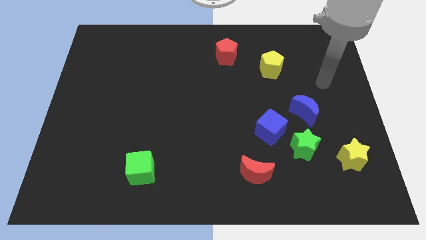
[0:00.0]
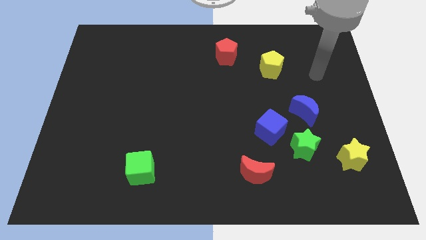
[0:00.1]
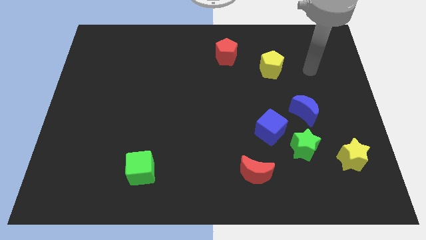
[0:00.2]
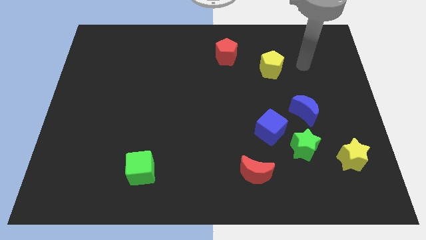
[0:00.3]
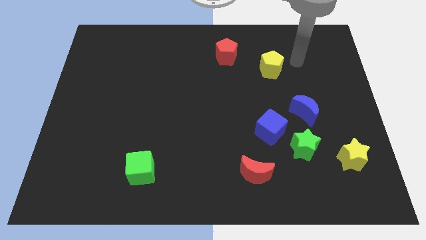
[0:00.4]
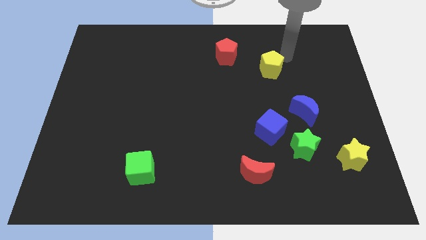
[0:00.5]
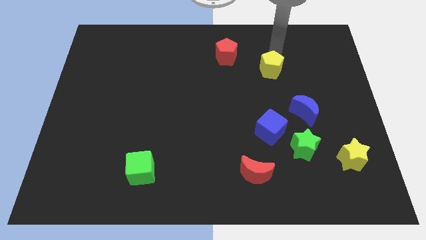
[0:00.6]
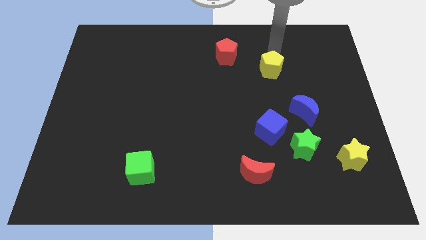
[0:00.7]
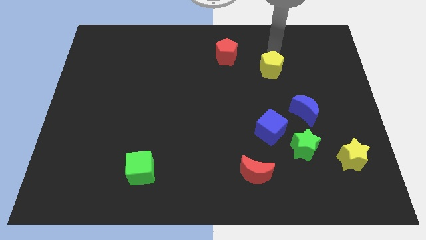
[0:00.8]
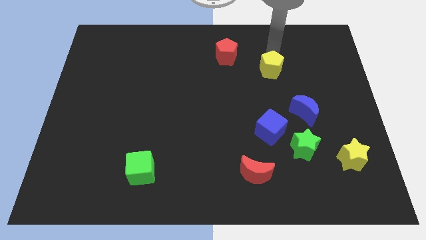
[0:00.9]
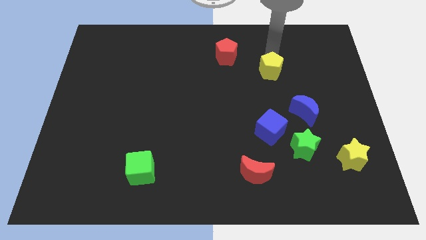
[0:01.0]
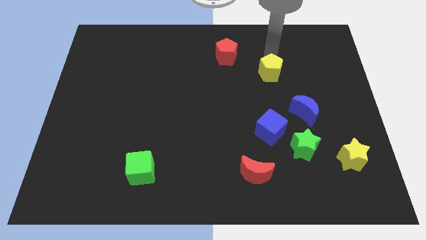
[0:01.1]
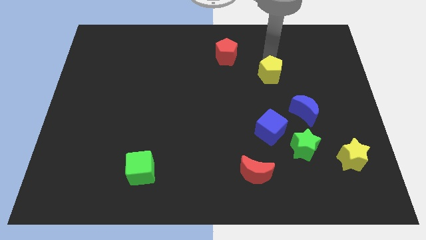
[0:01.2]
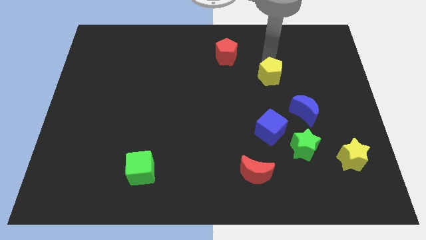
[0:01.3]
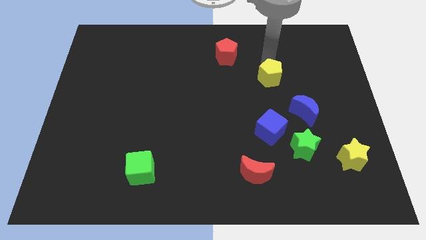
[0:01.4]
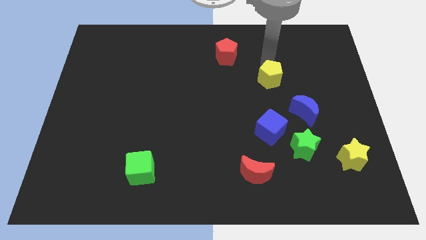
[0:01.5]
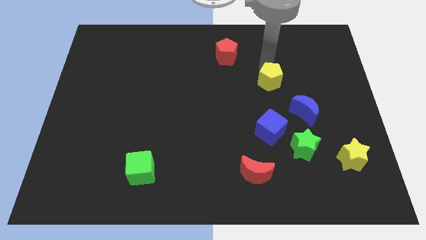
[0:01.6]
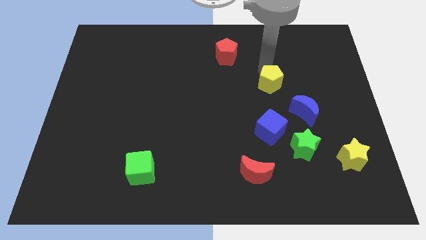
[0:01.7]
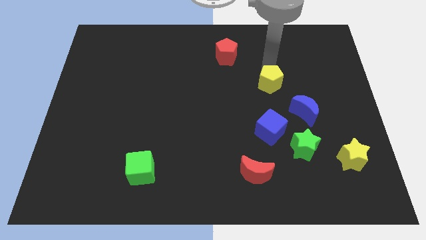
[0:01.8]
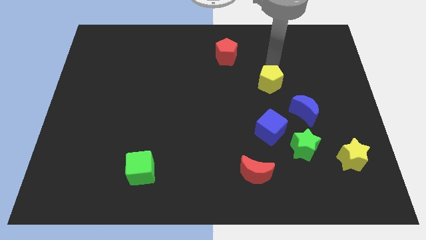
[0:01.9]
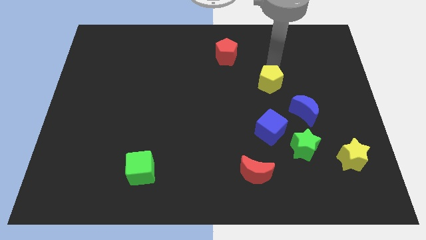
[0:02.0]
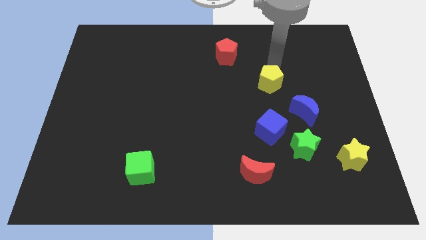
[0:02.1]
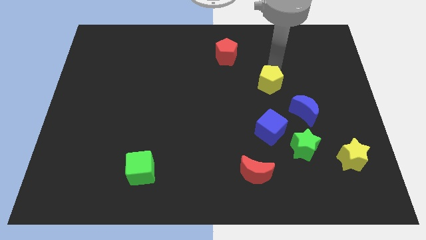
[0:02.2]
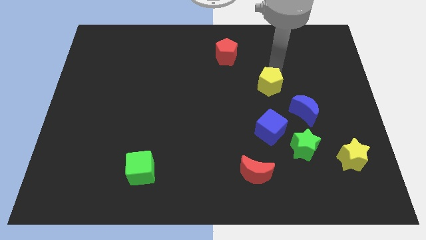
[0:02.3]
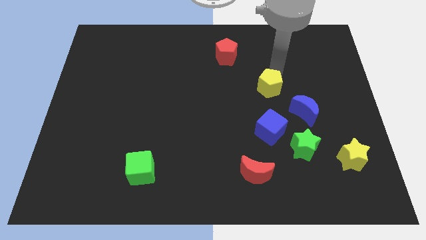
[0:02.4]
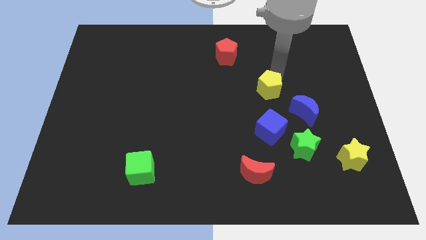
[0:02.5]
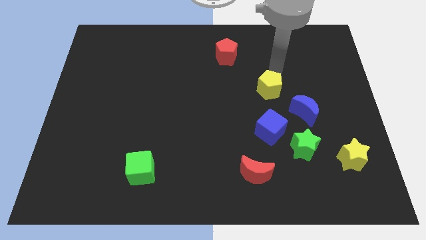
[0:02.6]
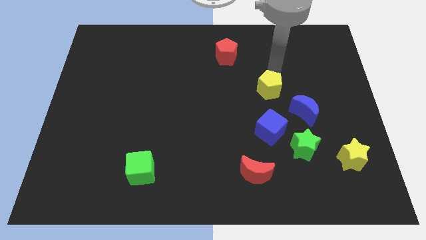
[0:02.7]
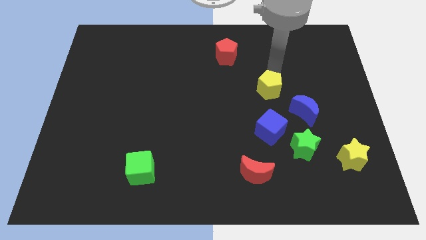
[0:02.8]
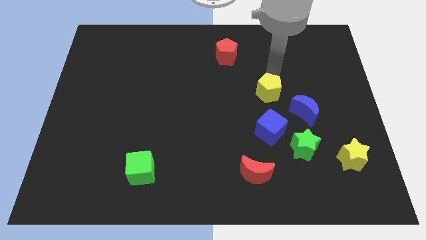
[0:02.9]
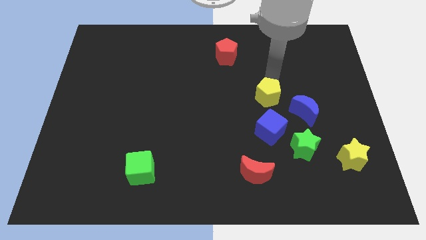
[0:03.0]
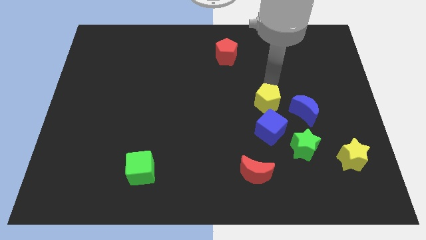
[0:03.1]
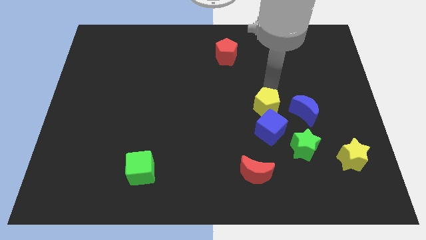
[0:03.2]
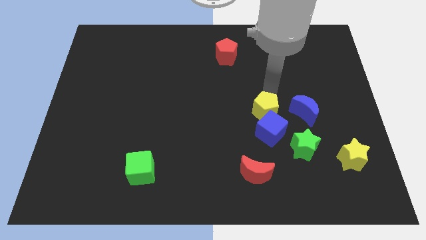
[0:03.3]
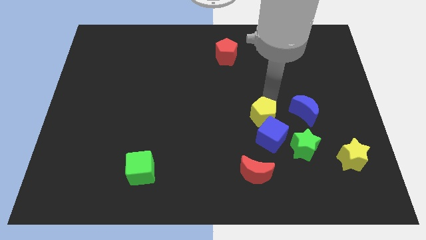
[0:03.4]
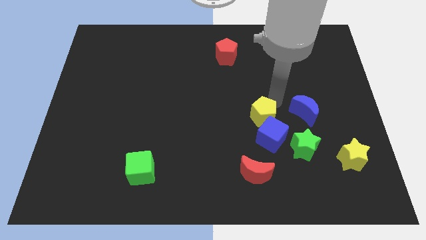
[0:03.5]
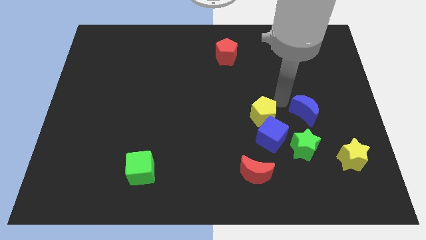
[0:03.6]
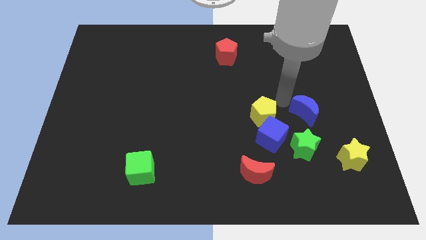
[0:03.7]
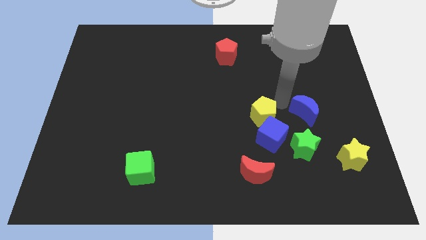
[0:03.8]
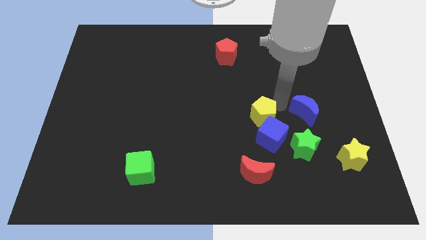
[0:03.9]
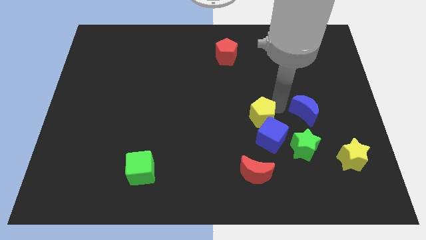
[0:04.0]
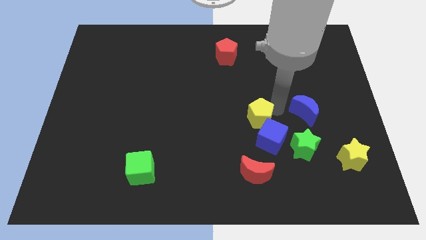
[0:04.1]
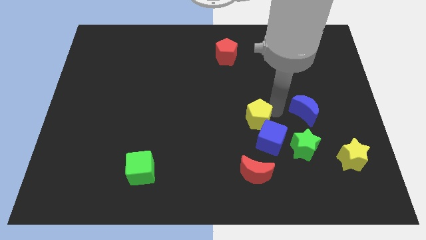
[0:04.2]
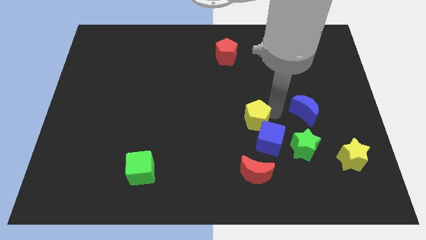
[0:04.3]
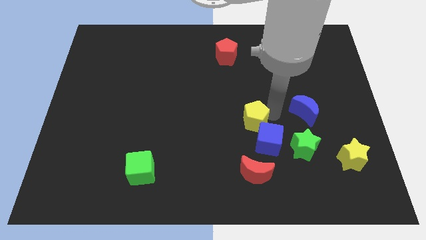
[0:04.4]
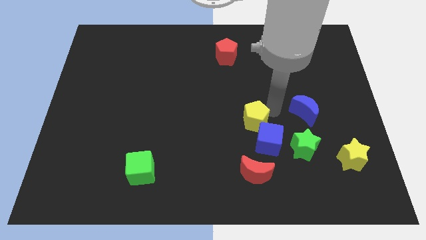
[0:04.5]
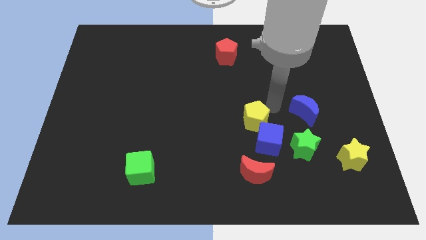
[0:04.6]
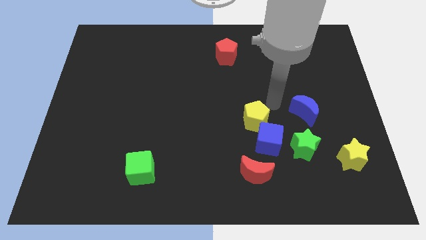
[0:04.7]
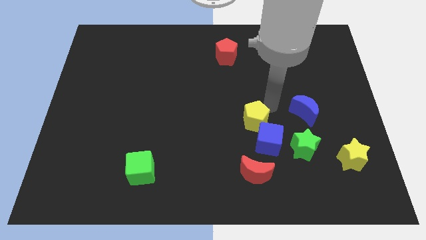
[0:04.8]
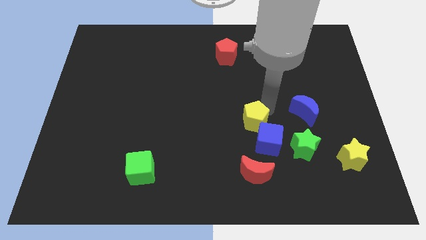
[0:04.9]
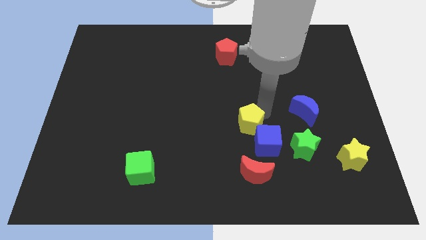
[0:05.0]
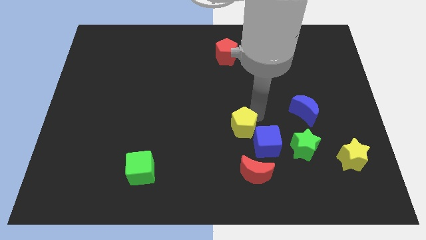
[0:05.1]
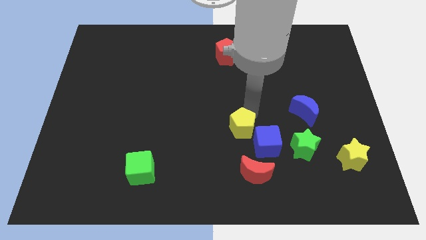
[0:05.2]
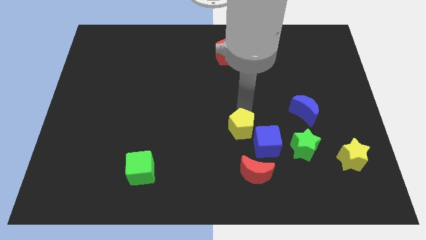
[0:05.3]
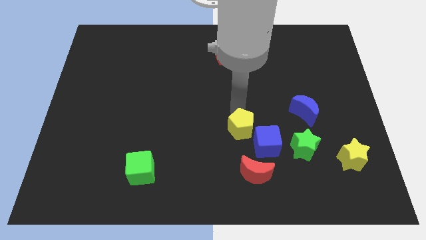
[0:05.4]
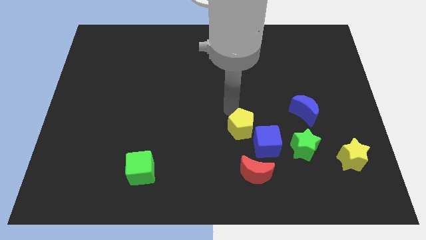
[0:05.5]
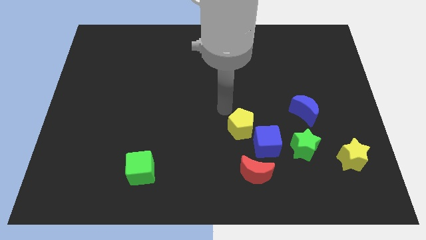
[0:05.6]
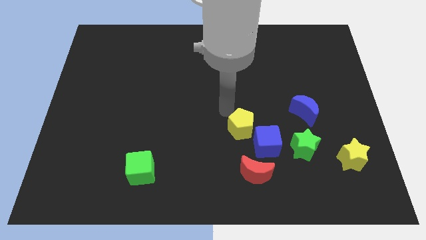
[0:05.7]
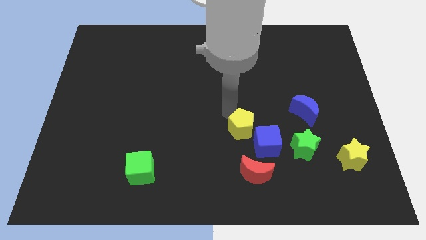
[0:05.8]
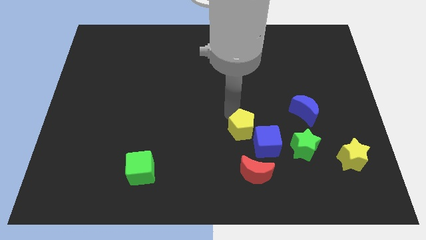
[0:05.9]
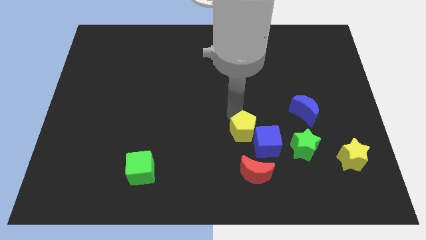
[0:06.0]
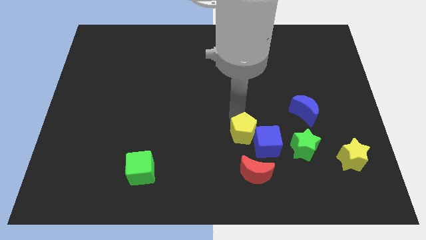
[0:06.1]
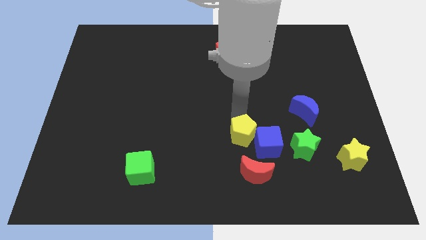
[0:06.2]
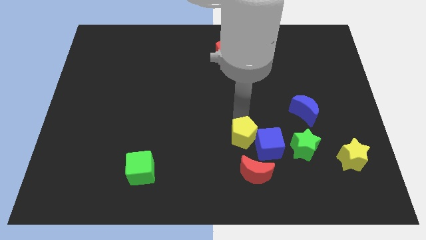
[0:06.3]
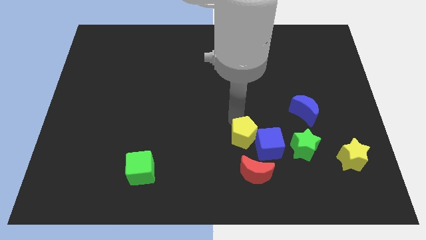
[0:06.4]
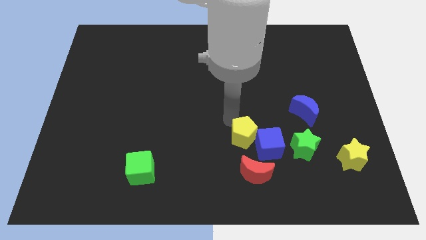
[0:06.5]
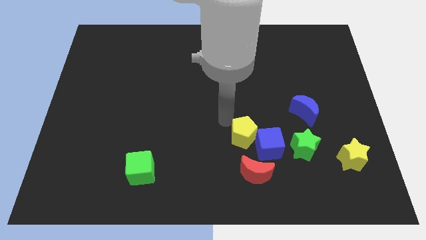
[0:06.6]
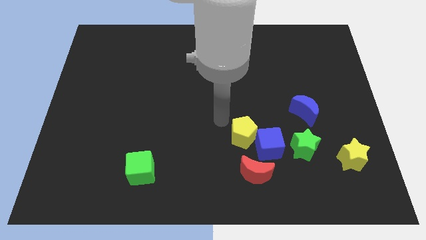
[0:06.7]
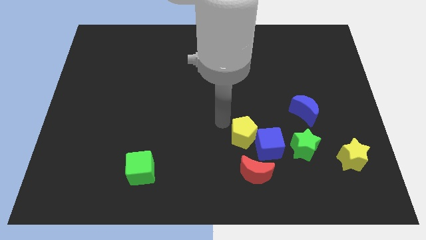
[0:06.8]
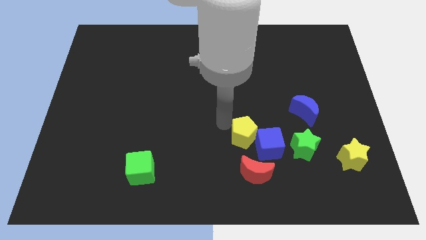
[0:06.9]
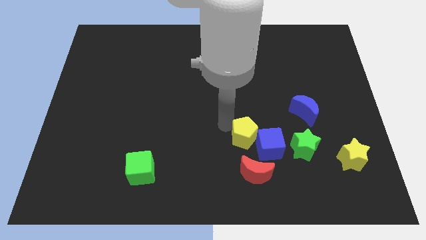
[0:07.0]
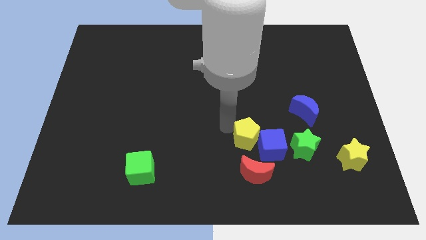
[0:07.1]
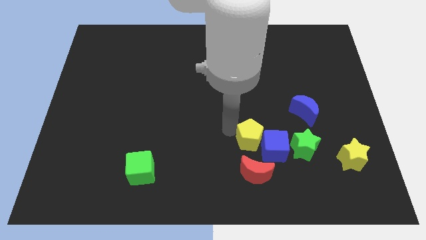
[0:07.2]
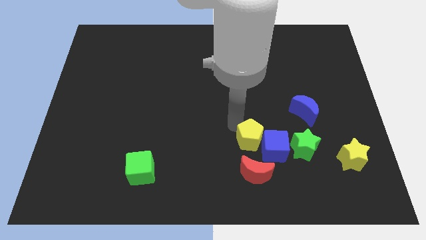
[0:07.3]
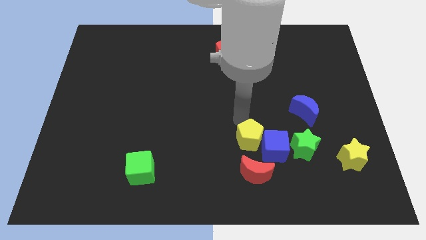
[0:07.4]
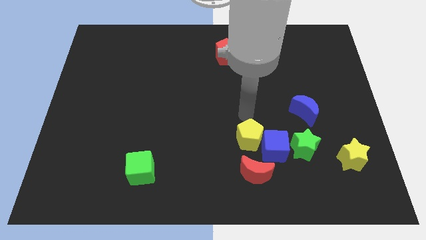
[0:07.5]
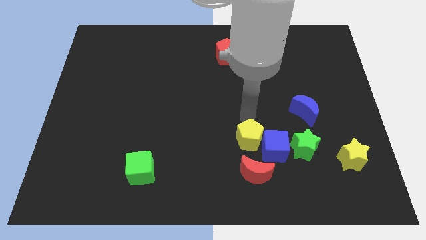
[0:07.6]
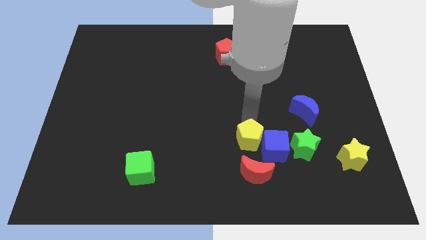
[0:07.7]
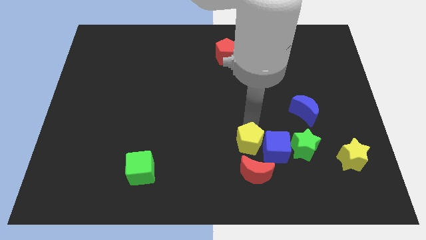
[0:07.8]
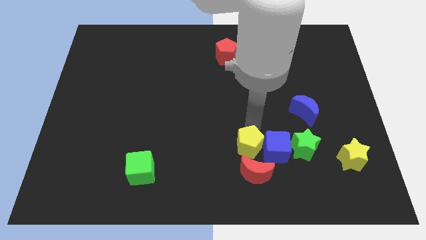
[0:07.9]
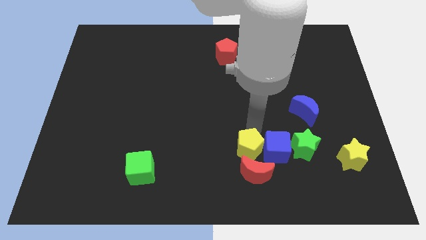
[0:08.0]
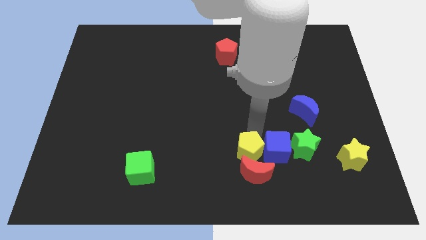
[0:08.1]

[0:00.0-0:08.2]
move the yellow pentagon towards the red moon
